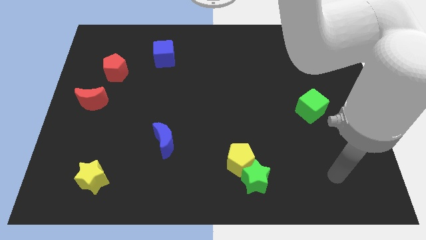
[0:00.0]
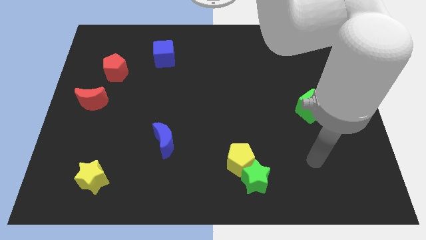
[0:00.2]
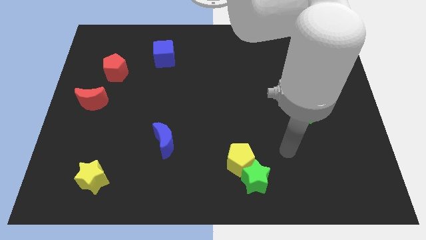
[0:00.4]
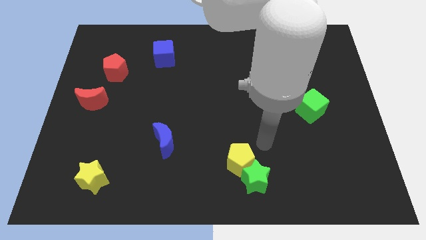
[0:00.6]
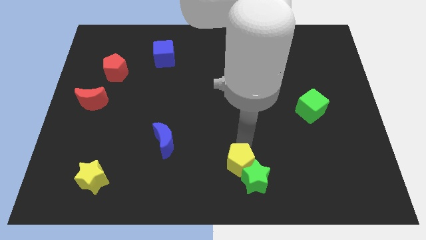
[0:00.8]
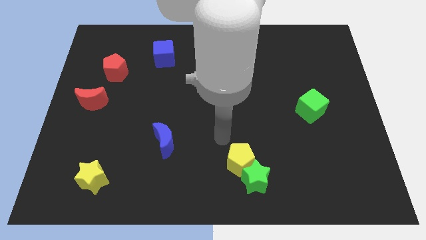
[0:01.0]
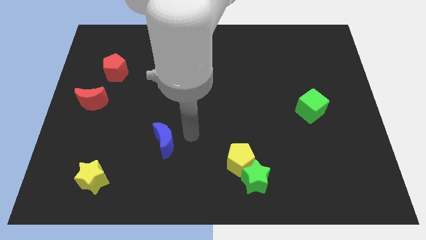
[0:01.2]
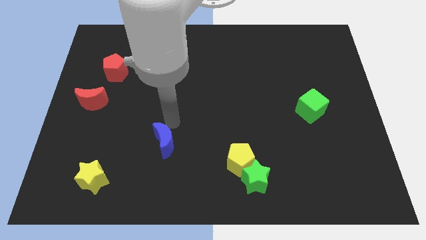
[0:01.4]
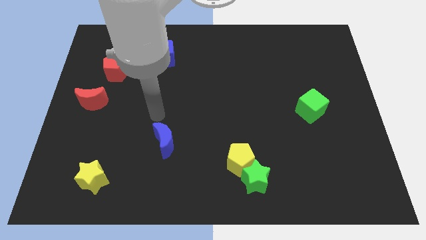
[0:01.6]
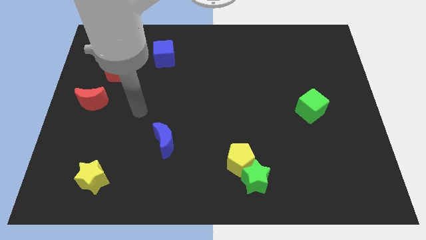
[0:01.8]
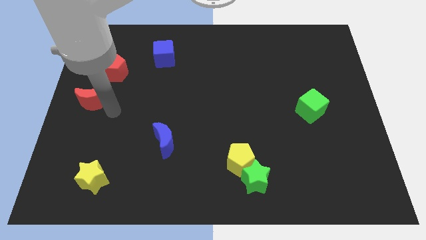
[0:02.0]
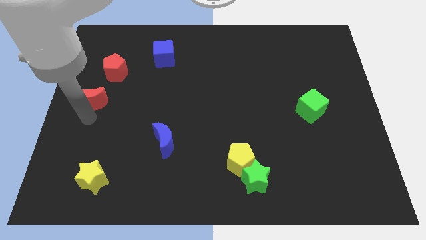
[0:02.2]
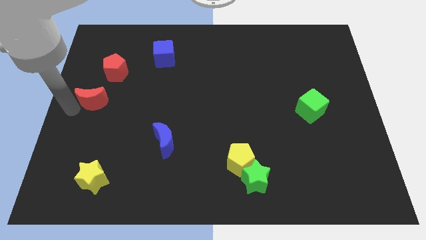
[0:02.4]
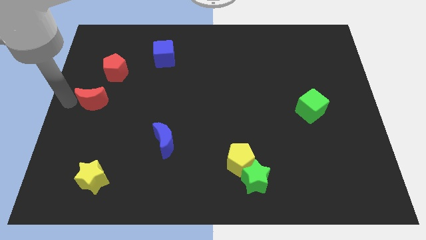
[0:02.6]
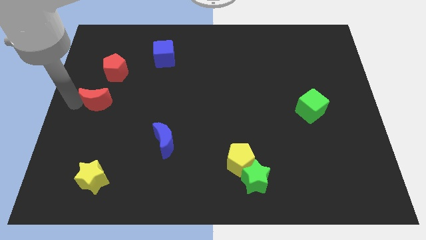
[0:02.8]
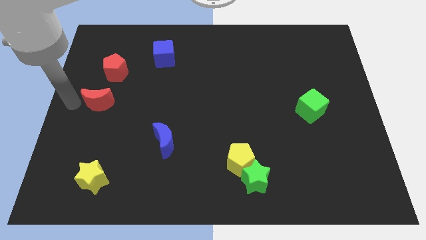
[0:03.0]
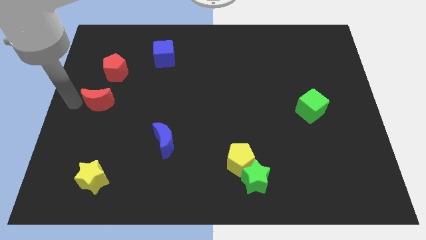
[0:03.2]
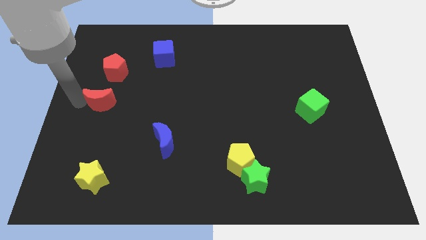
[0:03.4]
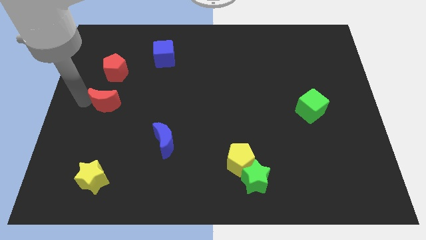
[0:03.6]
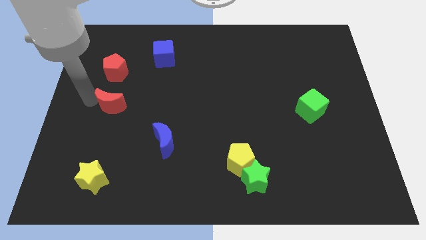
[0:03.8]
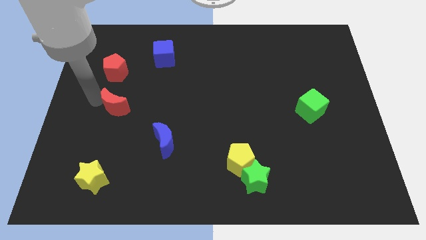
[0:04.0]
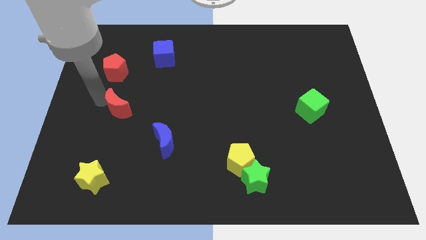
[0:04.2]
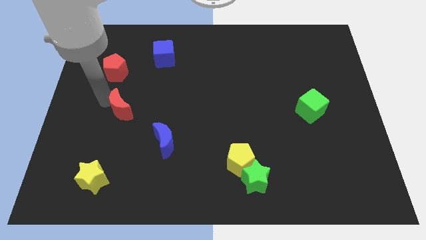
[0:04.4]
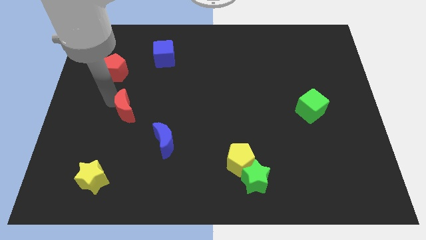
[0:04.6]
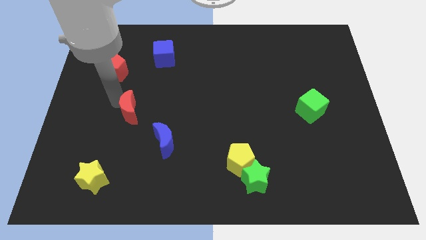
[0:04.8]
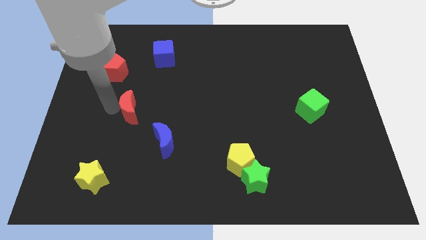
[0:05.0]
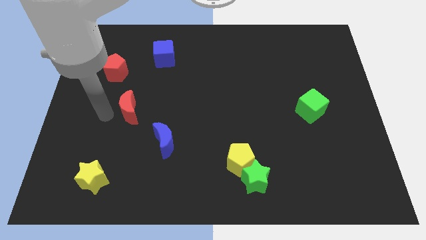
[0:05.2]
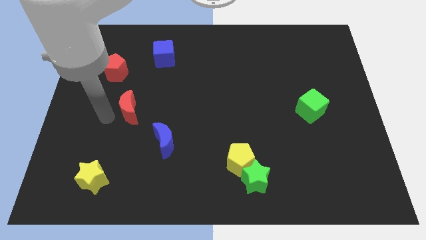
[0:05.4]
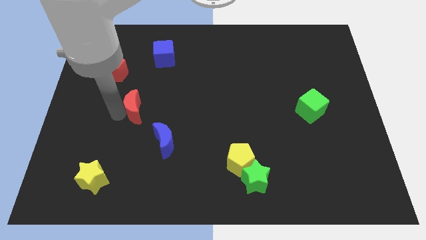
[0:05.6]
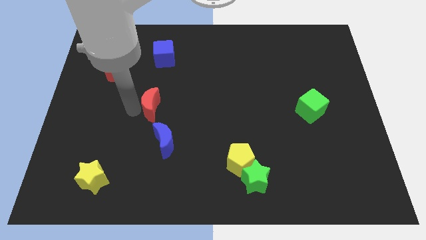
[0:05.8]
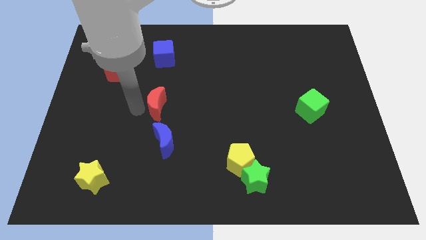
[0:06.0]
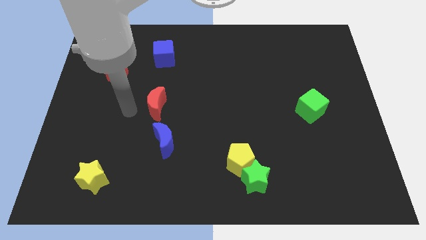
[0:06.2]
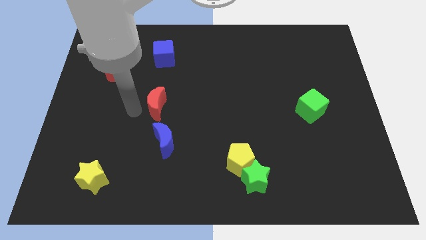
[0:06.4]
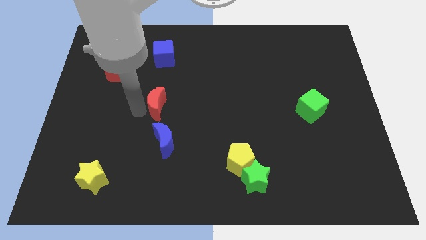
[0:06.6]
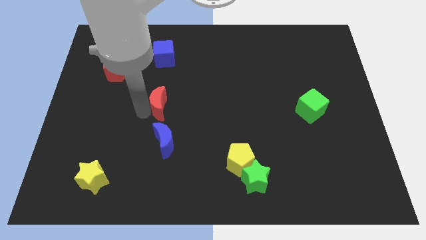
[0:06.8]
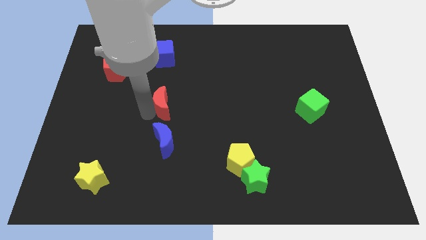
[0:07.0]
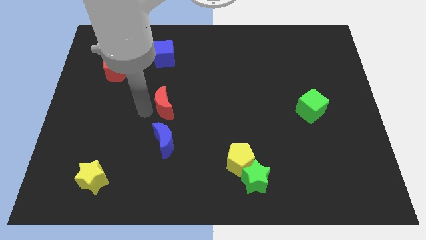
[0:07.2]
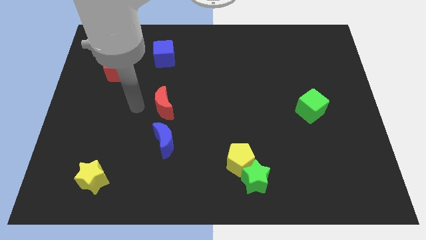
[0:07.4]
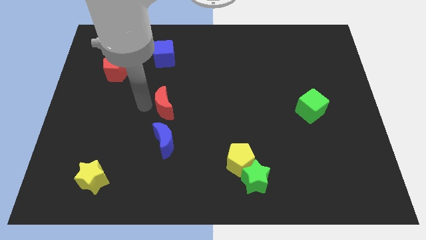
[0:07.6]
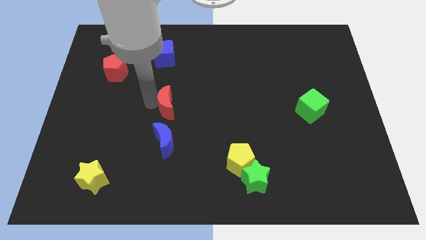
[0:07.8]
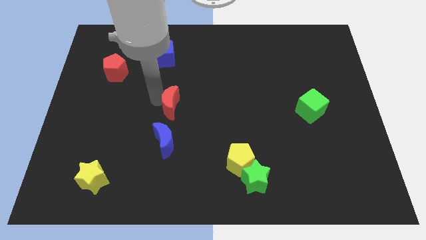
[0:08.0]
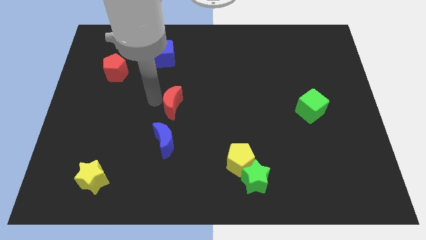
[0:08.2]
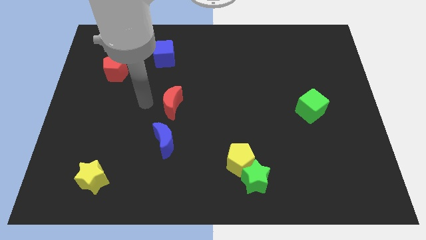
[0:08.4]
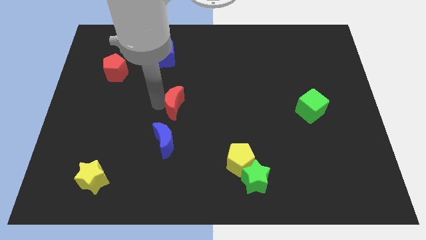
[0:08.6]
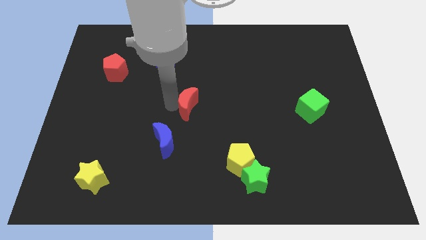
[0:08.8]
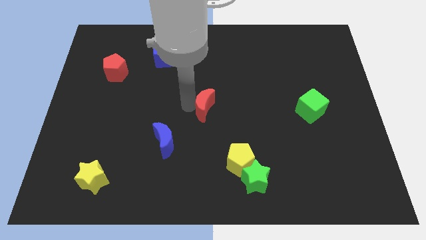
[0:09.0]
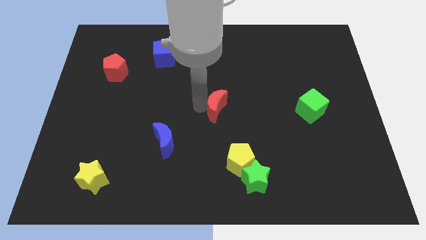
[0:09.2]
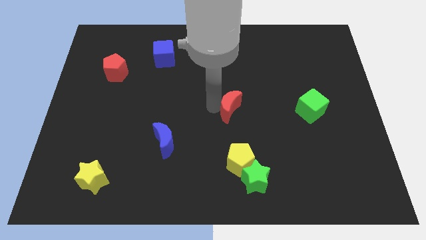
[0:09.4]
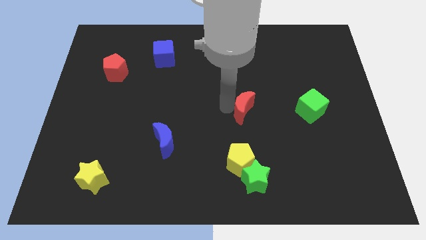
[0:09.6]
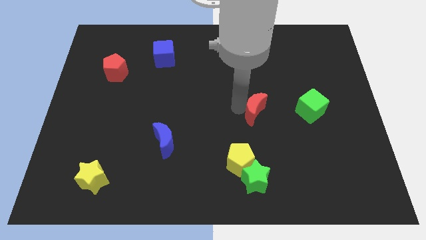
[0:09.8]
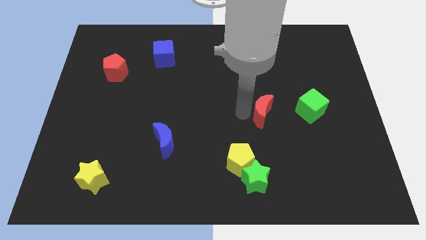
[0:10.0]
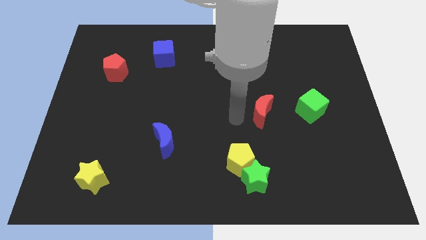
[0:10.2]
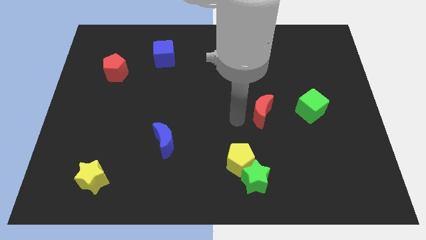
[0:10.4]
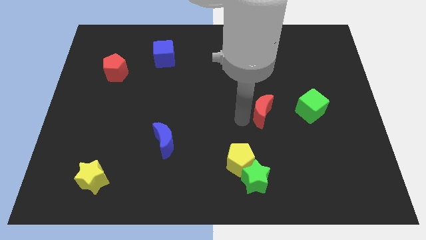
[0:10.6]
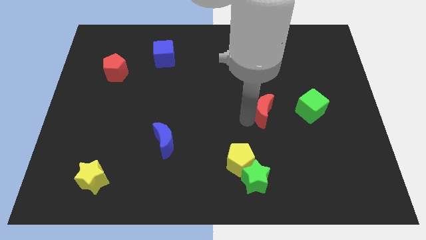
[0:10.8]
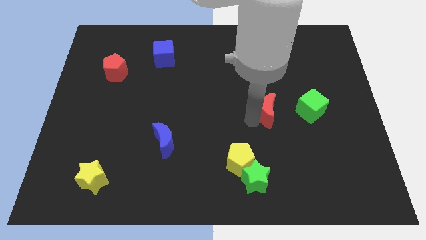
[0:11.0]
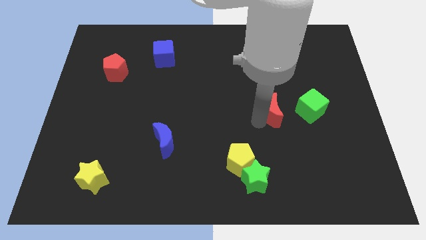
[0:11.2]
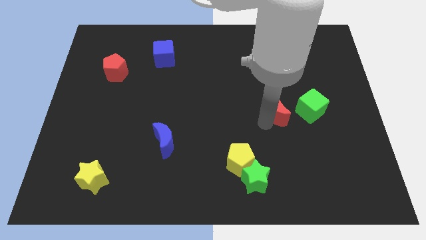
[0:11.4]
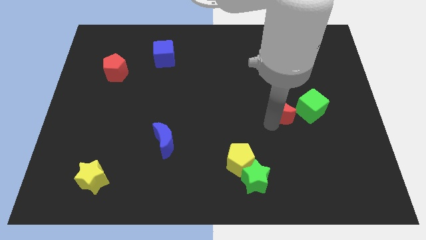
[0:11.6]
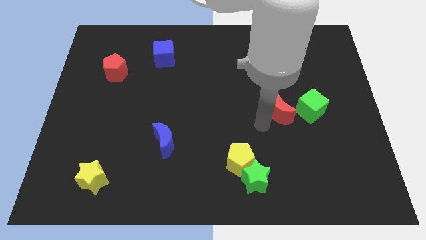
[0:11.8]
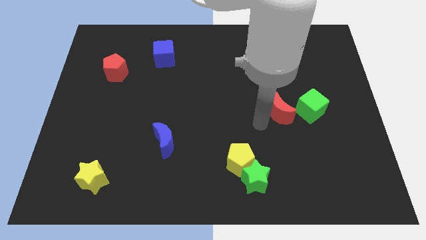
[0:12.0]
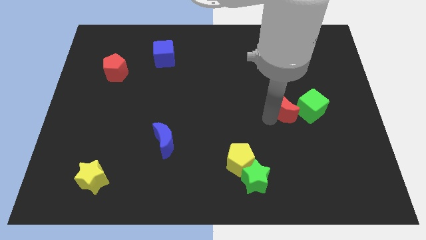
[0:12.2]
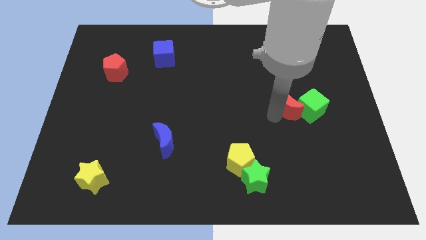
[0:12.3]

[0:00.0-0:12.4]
push the red moon close to the green cube

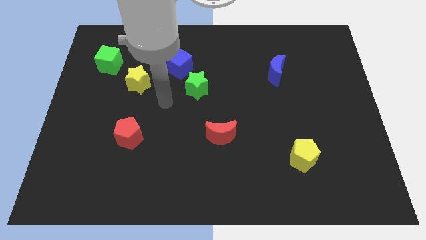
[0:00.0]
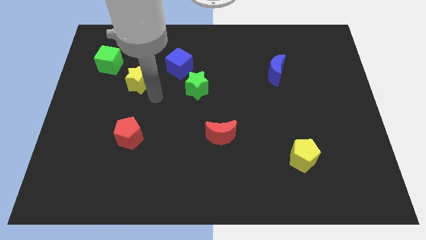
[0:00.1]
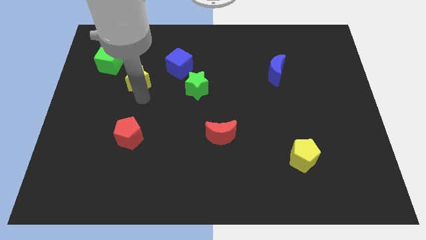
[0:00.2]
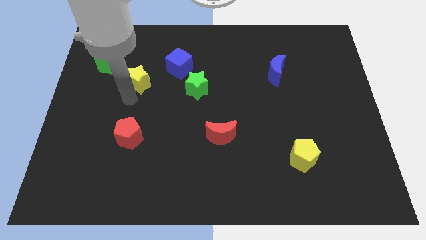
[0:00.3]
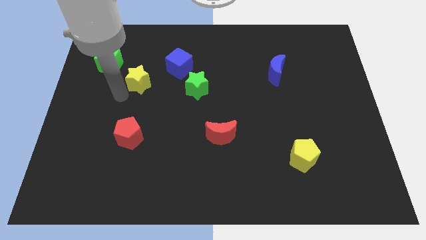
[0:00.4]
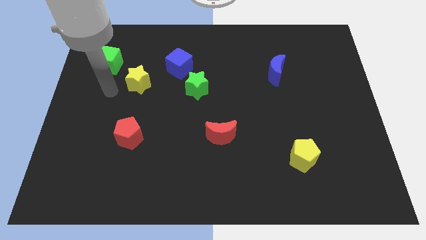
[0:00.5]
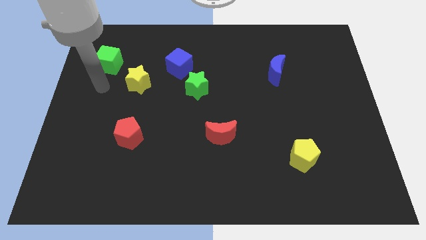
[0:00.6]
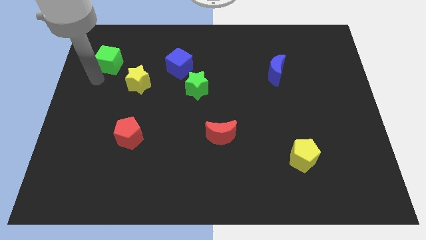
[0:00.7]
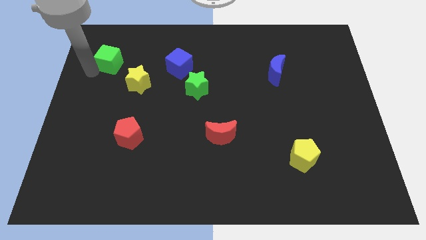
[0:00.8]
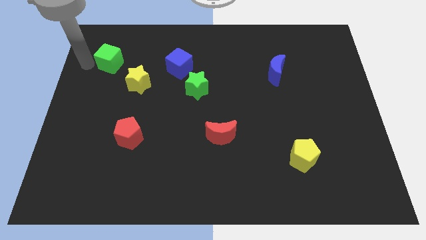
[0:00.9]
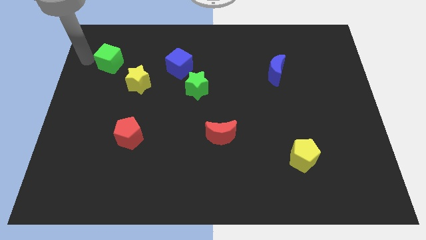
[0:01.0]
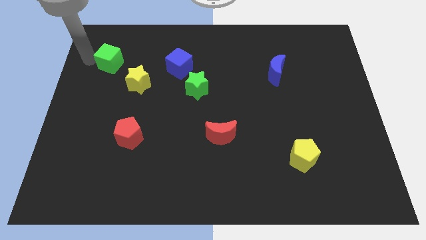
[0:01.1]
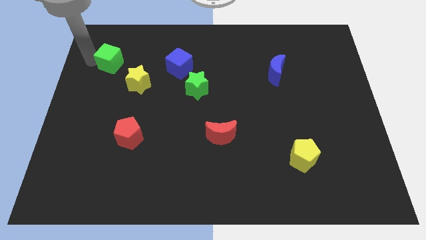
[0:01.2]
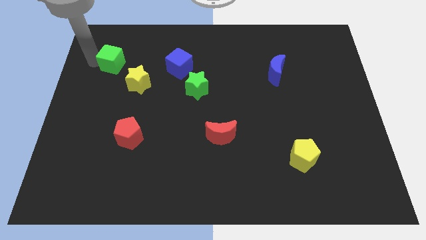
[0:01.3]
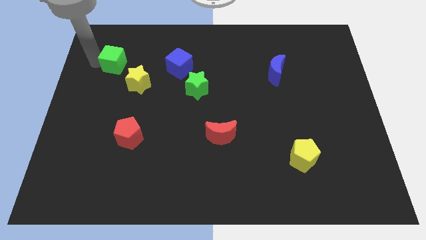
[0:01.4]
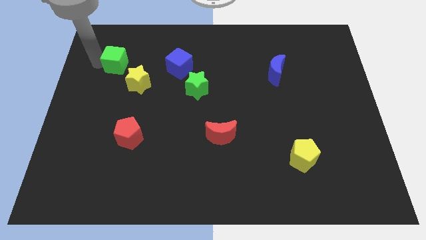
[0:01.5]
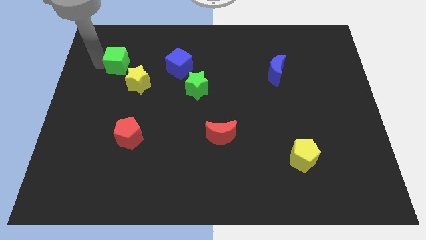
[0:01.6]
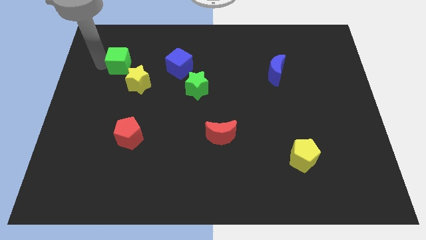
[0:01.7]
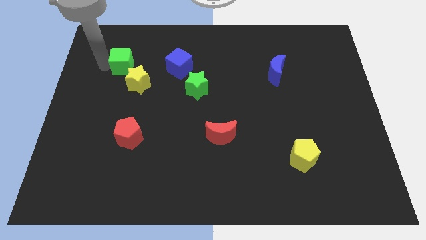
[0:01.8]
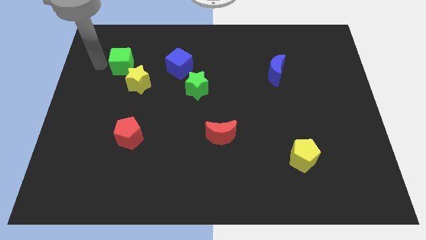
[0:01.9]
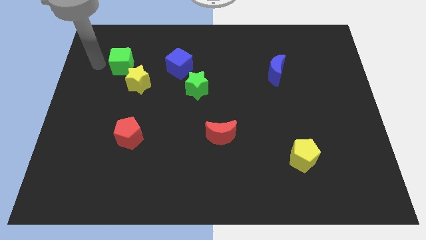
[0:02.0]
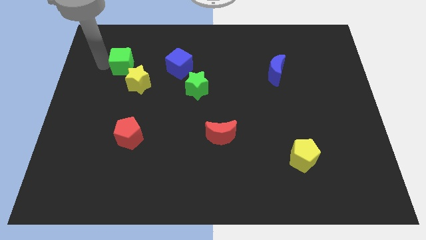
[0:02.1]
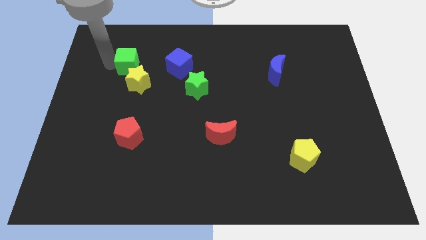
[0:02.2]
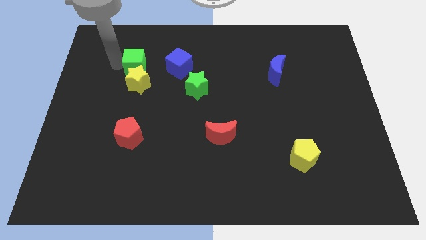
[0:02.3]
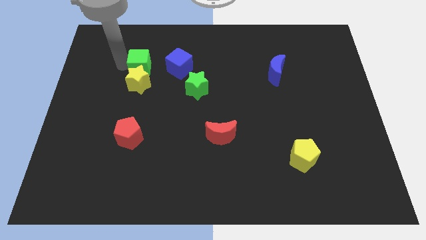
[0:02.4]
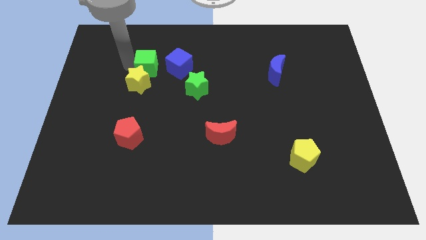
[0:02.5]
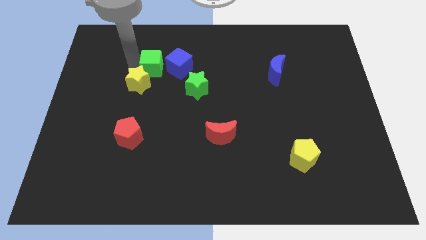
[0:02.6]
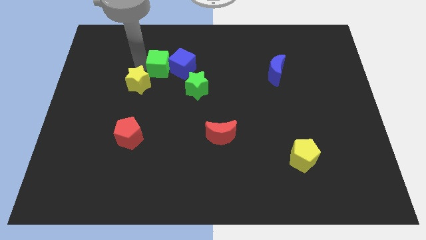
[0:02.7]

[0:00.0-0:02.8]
slide the green cube towards the blue cube
